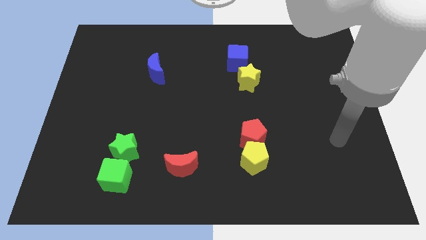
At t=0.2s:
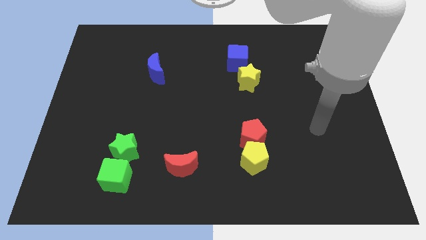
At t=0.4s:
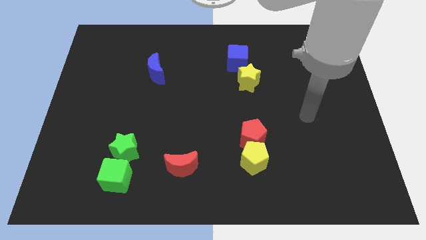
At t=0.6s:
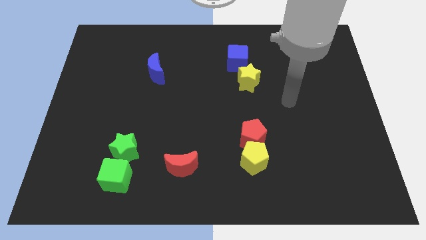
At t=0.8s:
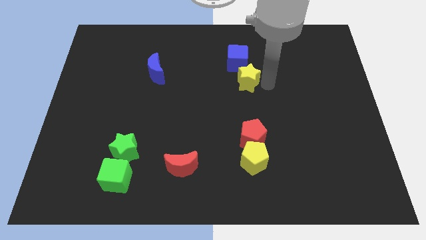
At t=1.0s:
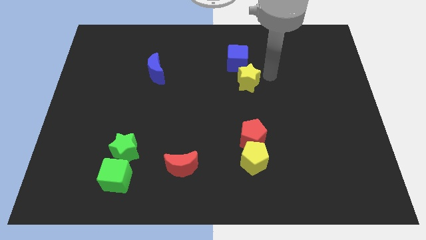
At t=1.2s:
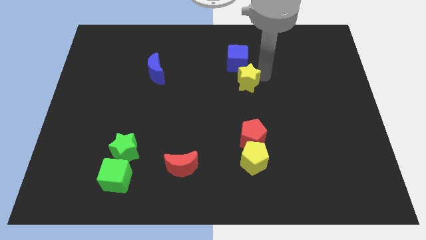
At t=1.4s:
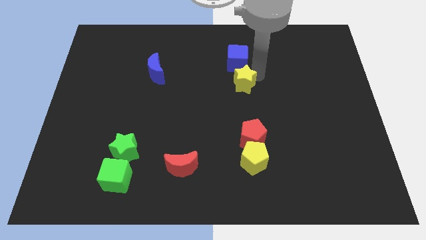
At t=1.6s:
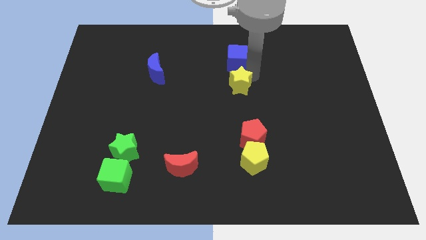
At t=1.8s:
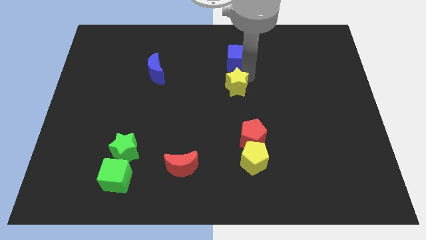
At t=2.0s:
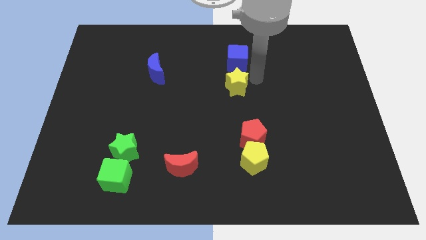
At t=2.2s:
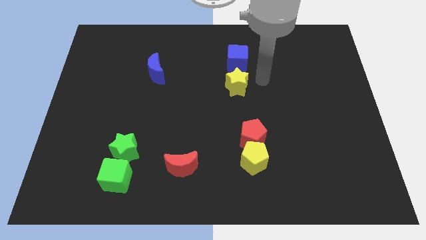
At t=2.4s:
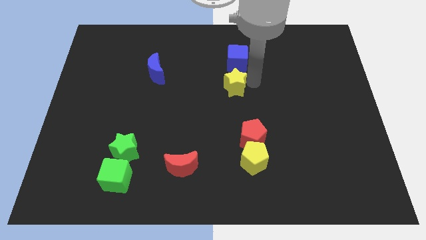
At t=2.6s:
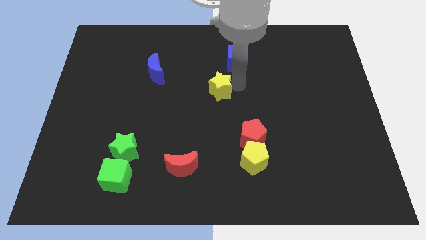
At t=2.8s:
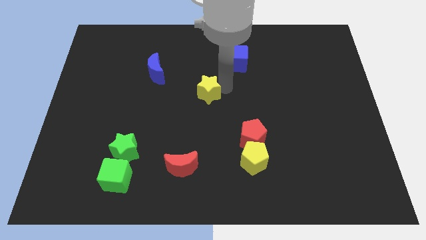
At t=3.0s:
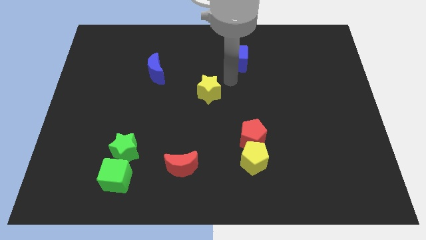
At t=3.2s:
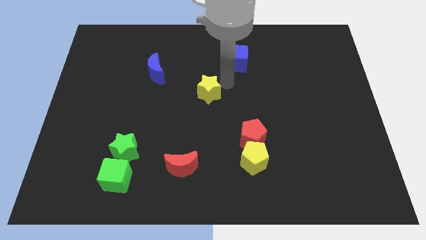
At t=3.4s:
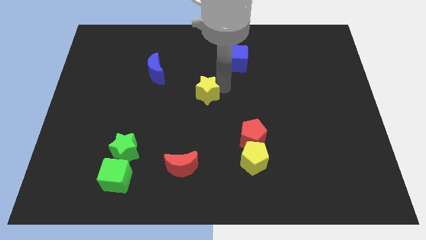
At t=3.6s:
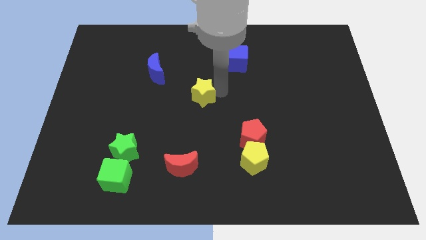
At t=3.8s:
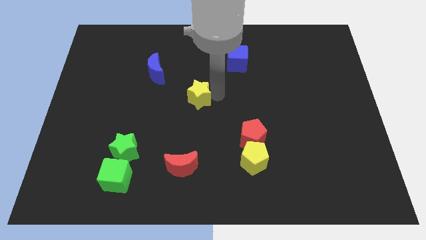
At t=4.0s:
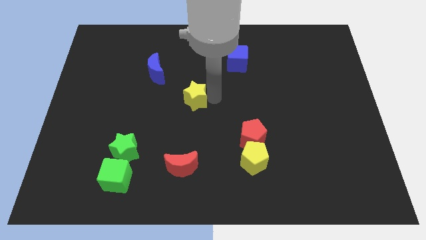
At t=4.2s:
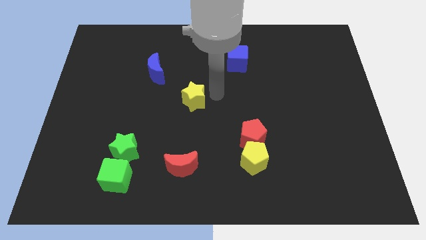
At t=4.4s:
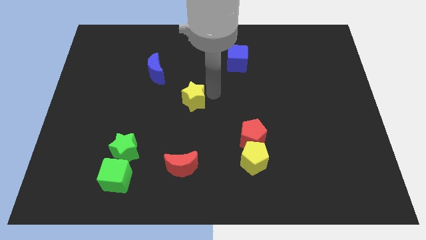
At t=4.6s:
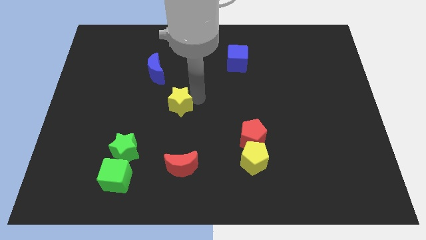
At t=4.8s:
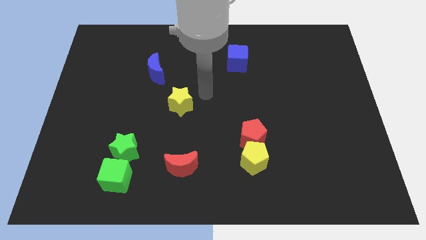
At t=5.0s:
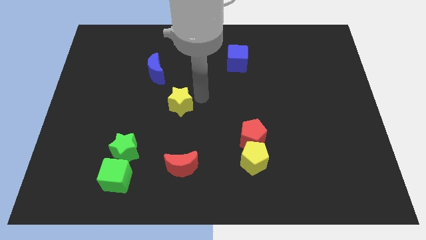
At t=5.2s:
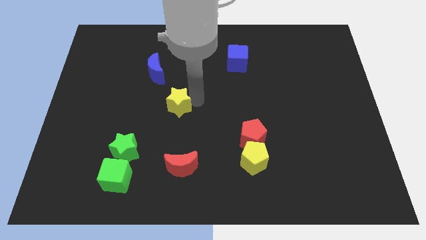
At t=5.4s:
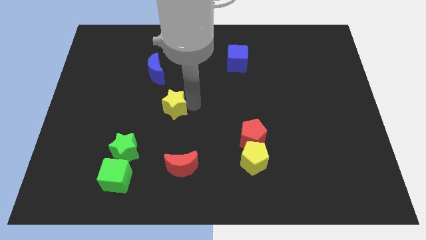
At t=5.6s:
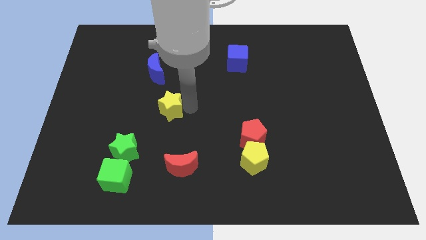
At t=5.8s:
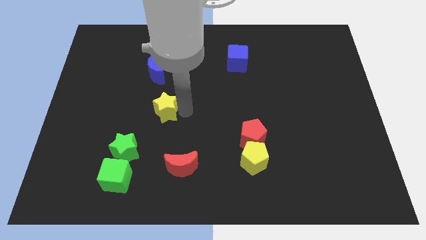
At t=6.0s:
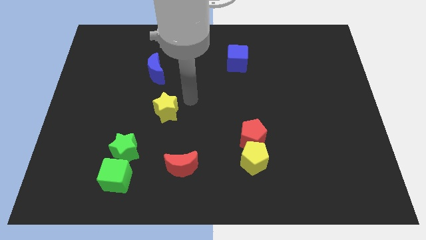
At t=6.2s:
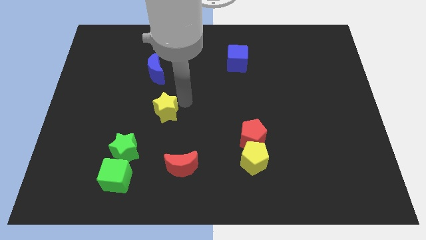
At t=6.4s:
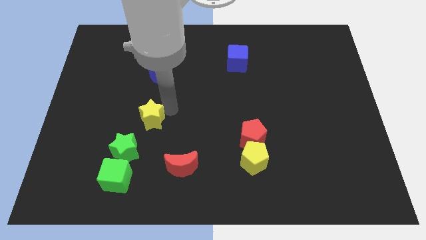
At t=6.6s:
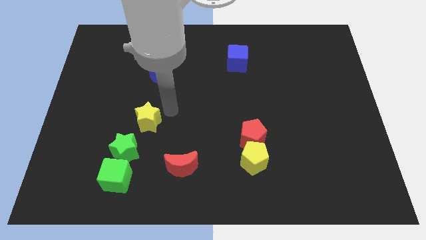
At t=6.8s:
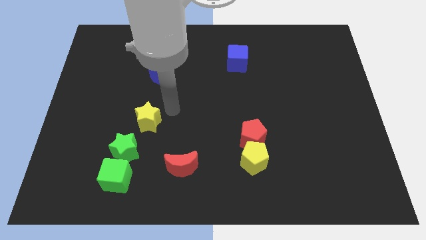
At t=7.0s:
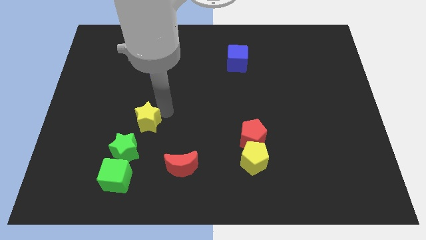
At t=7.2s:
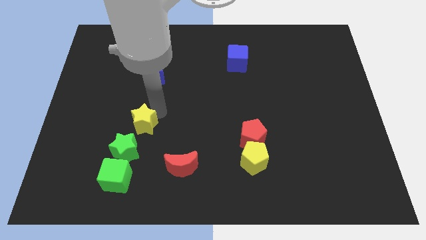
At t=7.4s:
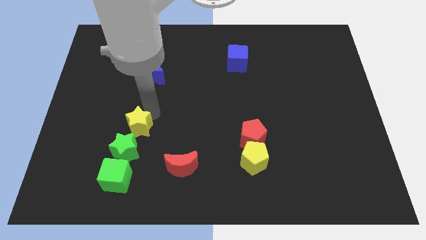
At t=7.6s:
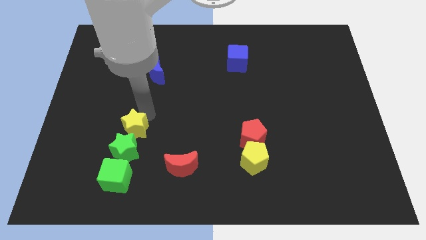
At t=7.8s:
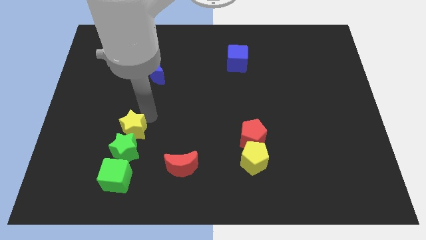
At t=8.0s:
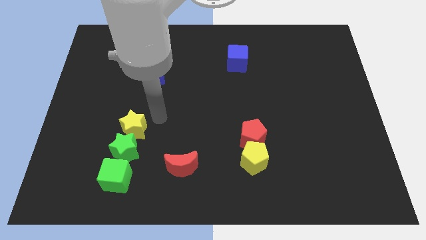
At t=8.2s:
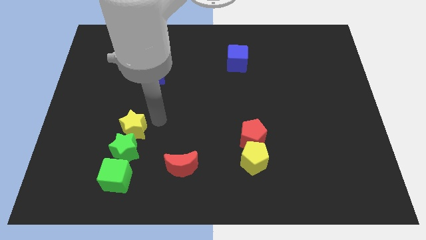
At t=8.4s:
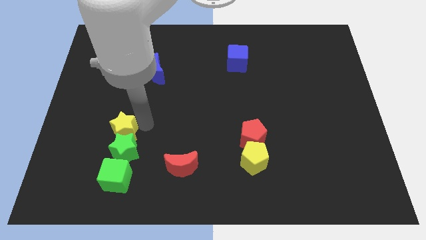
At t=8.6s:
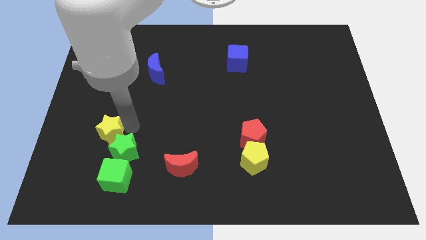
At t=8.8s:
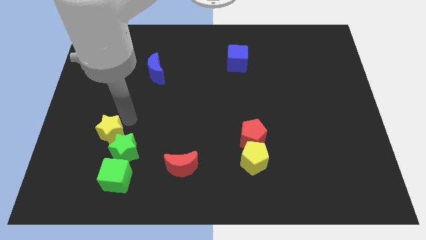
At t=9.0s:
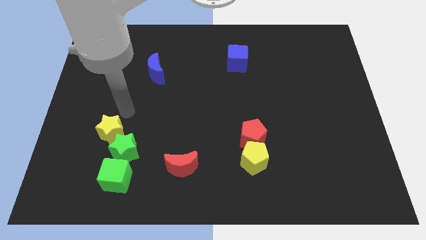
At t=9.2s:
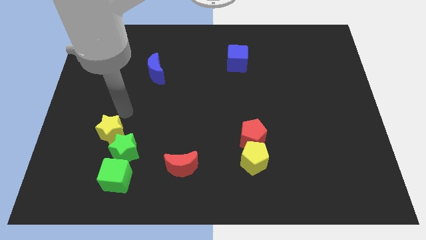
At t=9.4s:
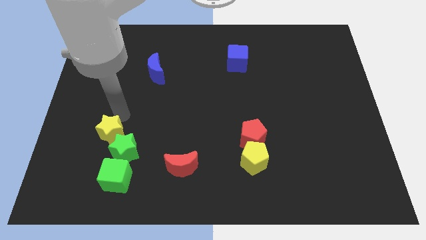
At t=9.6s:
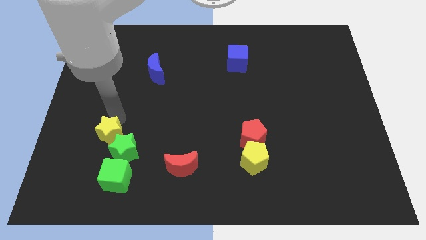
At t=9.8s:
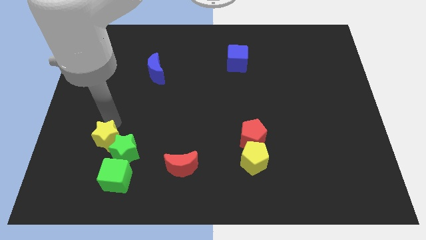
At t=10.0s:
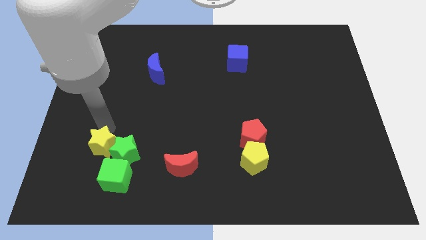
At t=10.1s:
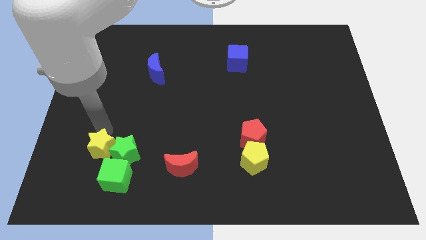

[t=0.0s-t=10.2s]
put the yellow star to the bottom left of the green star

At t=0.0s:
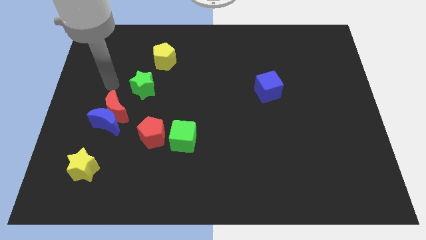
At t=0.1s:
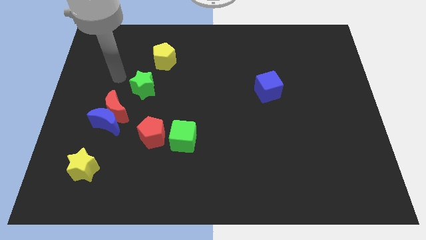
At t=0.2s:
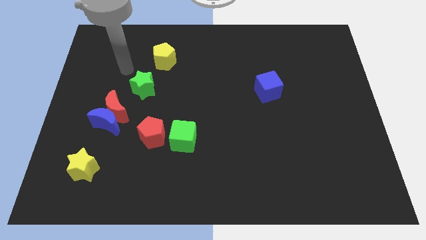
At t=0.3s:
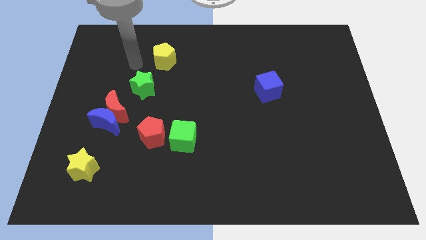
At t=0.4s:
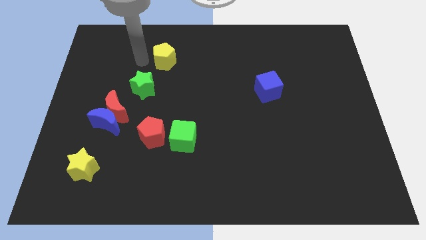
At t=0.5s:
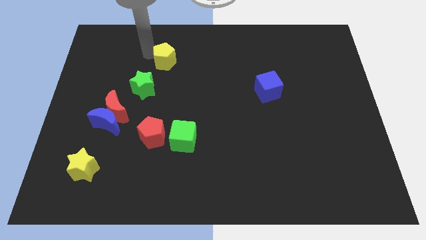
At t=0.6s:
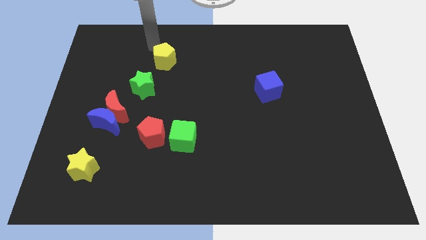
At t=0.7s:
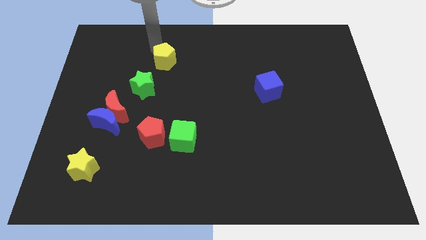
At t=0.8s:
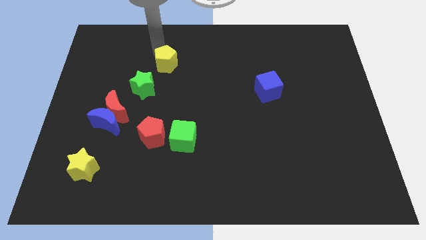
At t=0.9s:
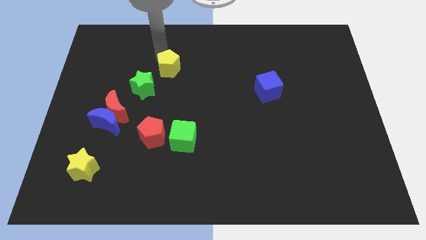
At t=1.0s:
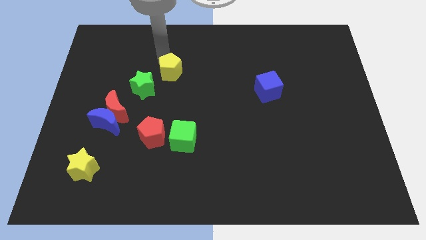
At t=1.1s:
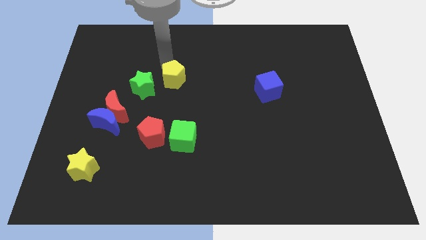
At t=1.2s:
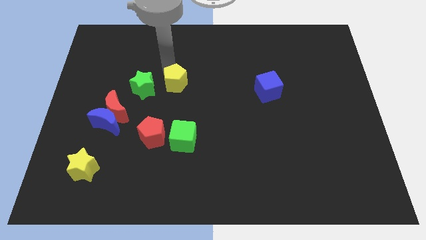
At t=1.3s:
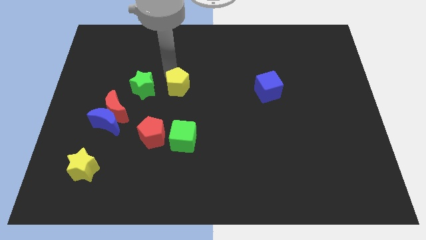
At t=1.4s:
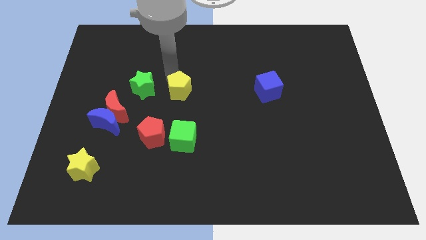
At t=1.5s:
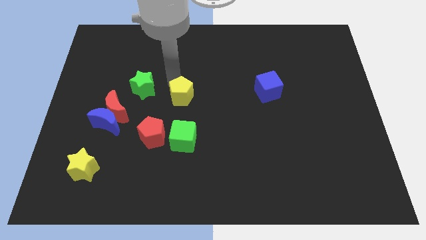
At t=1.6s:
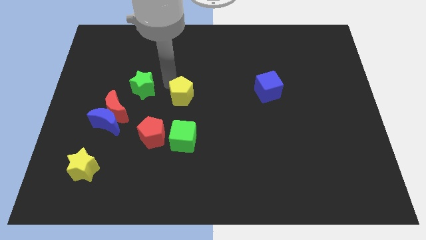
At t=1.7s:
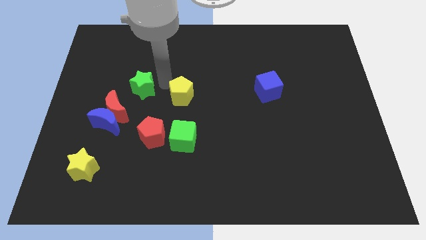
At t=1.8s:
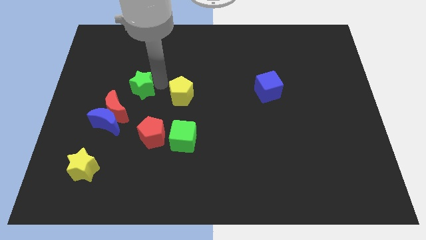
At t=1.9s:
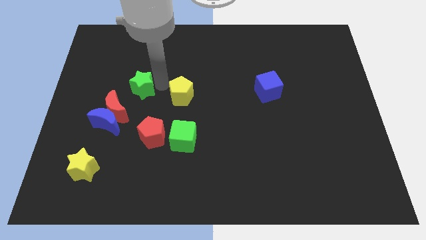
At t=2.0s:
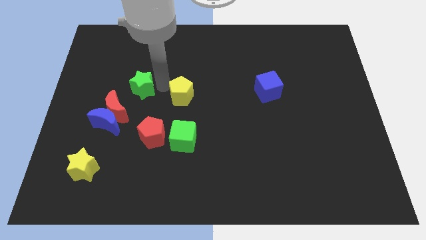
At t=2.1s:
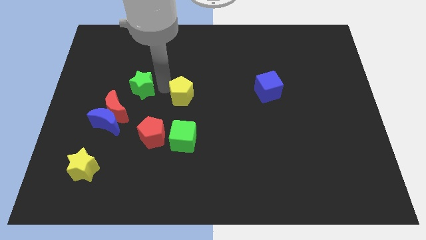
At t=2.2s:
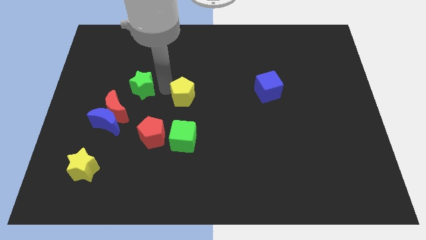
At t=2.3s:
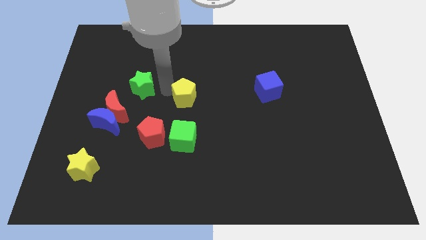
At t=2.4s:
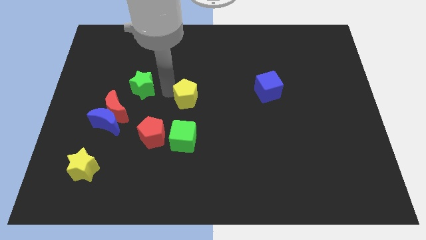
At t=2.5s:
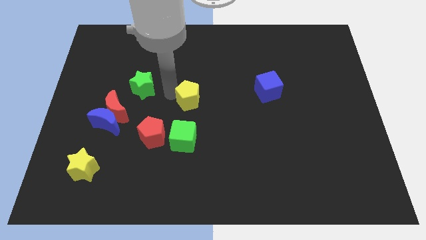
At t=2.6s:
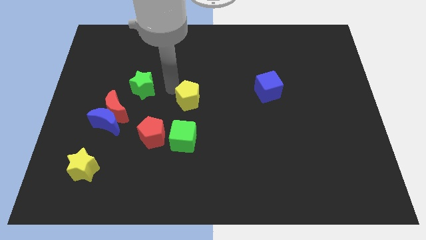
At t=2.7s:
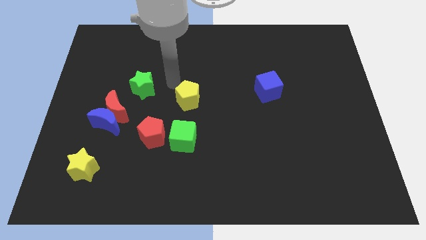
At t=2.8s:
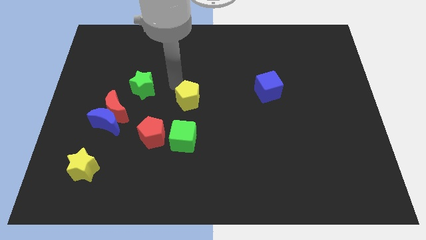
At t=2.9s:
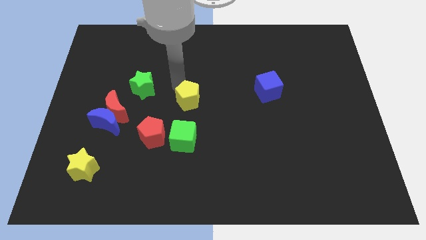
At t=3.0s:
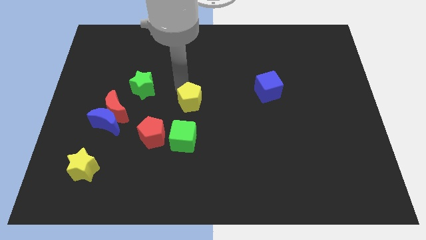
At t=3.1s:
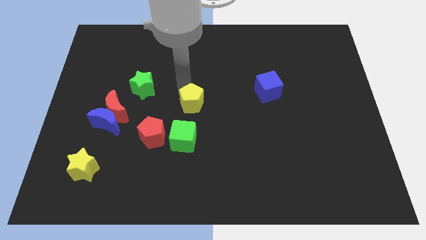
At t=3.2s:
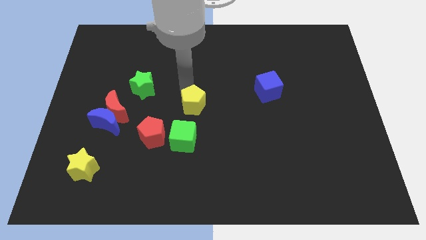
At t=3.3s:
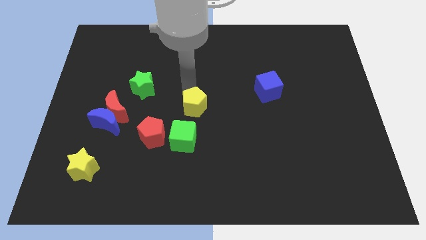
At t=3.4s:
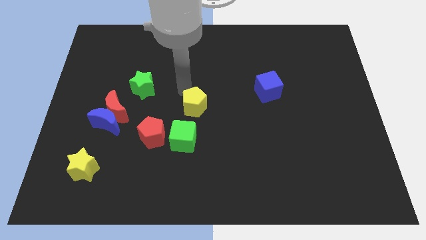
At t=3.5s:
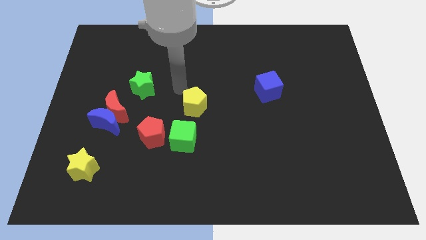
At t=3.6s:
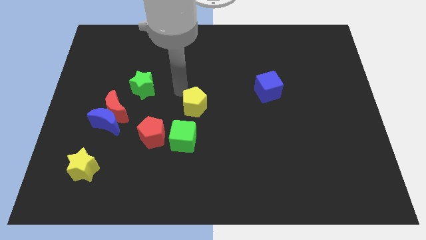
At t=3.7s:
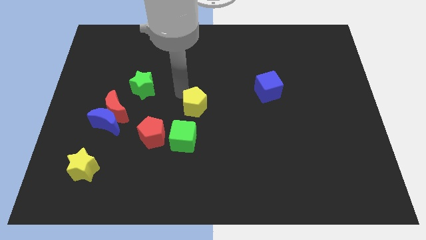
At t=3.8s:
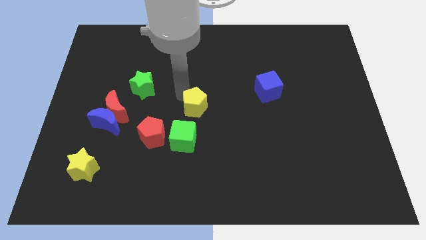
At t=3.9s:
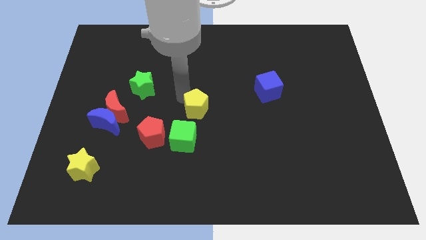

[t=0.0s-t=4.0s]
push the yellow pentagon to the top right of the green cube
